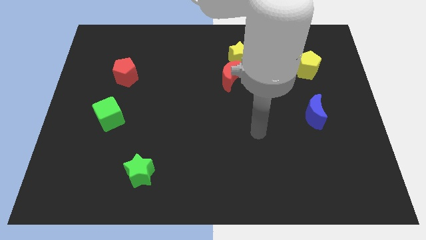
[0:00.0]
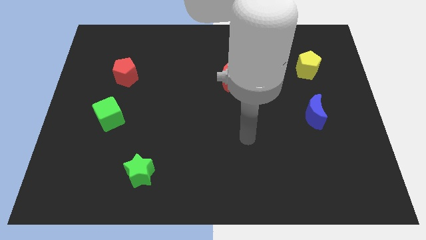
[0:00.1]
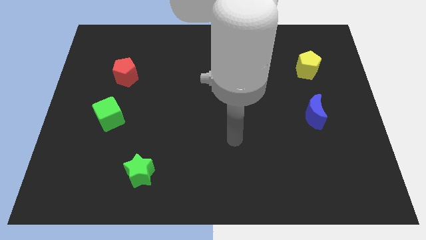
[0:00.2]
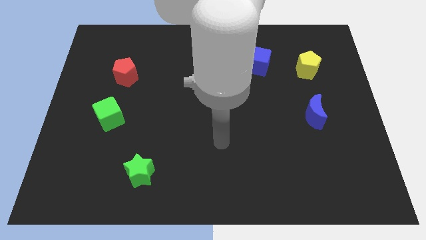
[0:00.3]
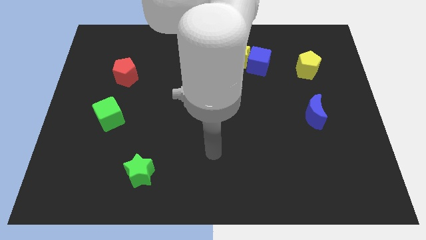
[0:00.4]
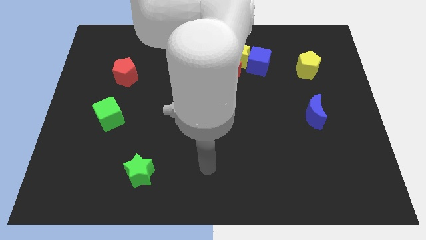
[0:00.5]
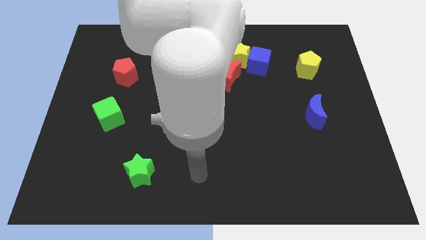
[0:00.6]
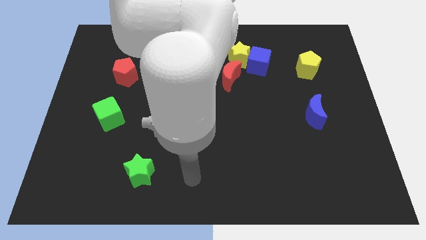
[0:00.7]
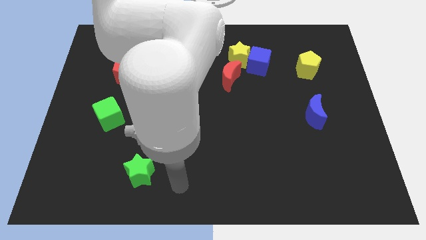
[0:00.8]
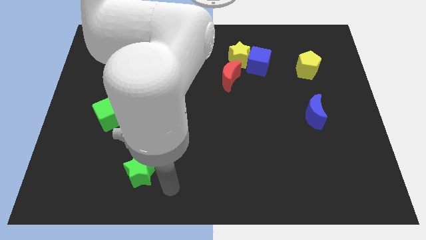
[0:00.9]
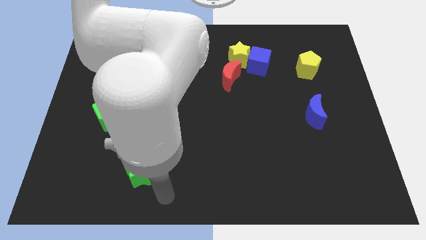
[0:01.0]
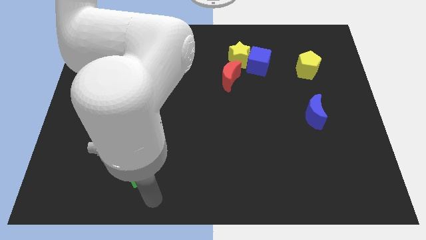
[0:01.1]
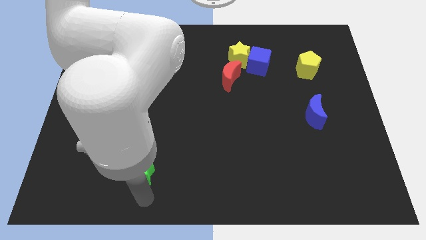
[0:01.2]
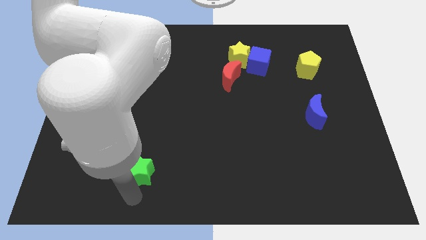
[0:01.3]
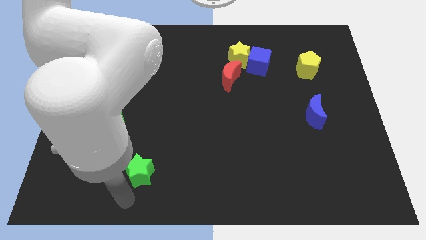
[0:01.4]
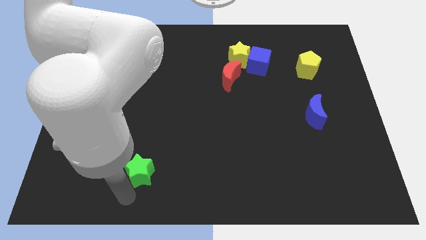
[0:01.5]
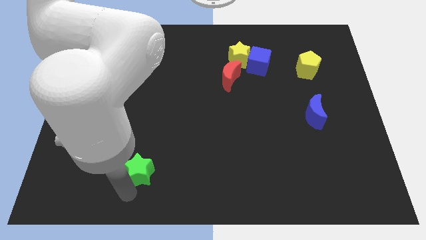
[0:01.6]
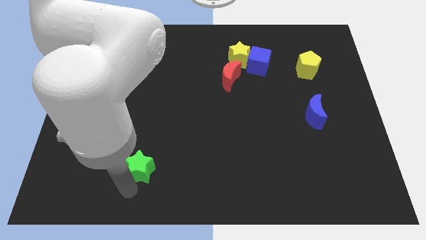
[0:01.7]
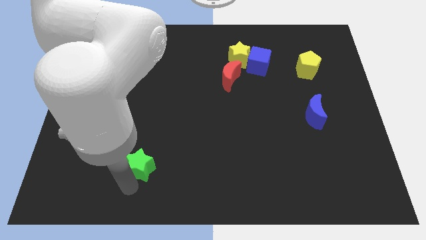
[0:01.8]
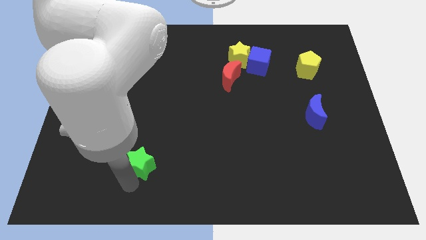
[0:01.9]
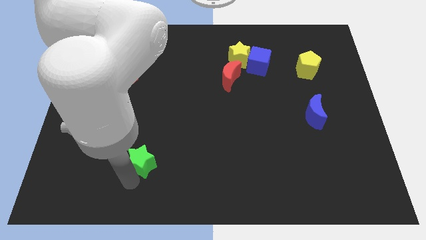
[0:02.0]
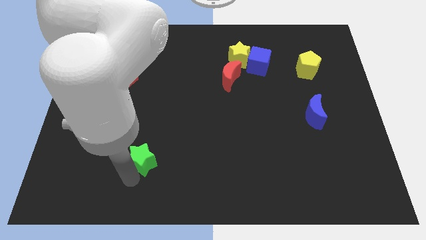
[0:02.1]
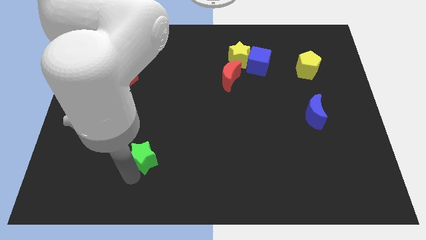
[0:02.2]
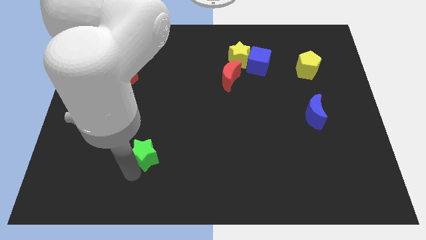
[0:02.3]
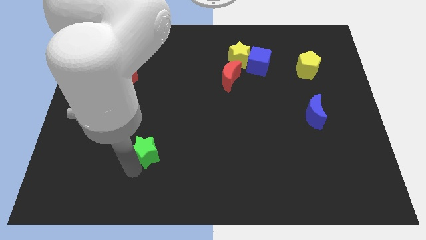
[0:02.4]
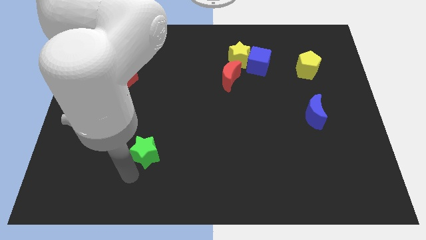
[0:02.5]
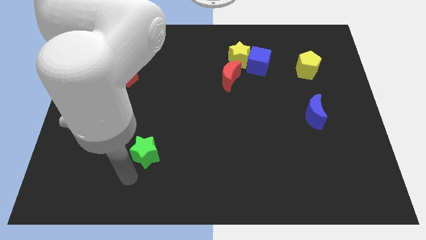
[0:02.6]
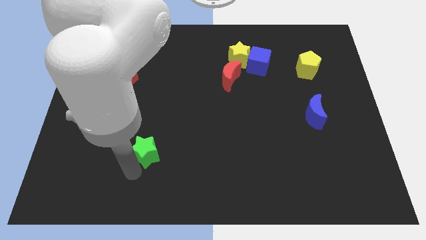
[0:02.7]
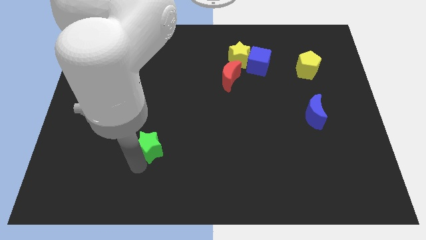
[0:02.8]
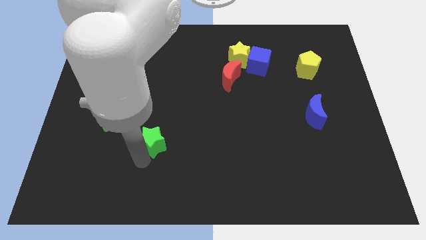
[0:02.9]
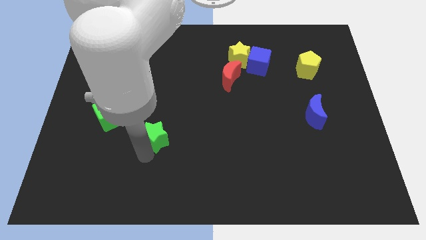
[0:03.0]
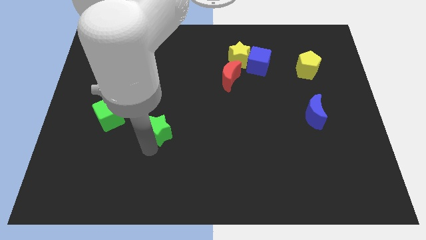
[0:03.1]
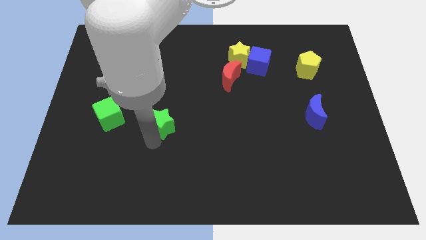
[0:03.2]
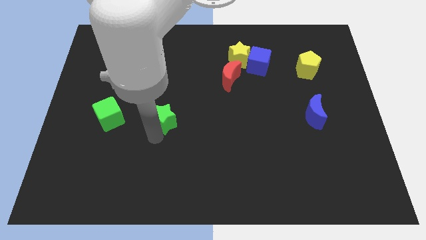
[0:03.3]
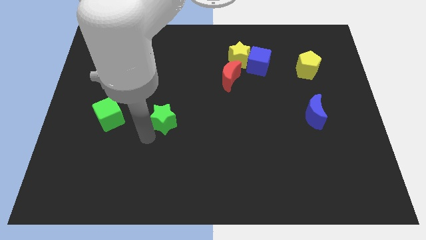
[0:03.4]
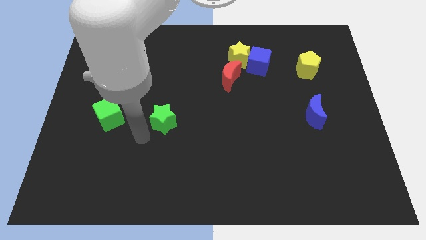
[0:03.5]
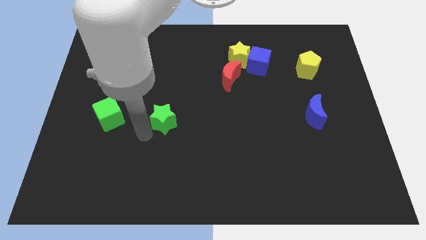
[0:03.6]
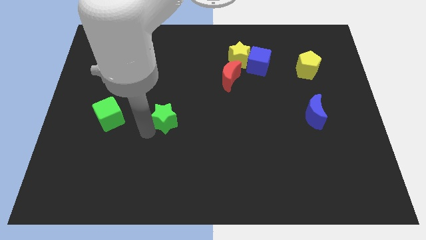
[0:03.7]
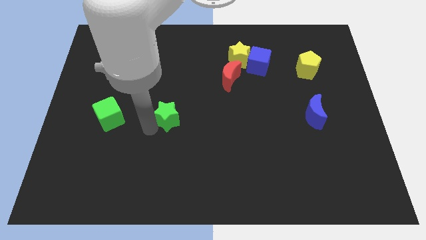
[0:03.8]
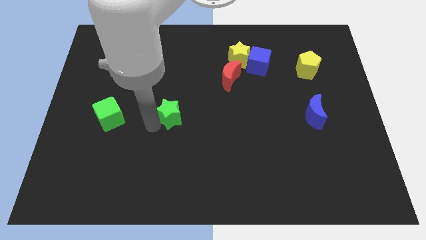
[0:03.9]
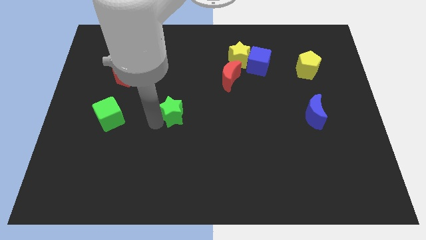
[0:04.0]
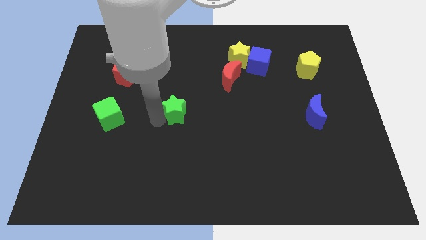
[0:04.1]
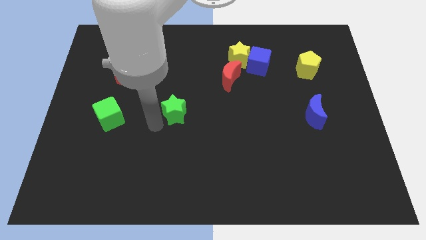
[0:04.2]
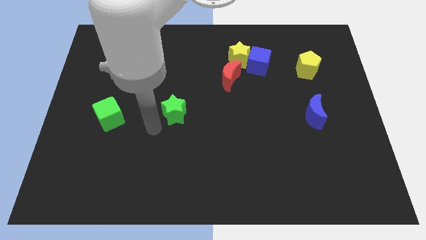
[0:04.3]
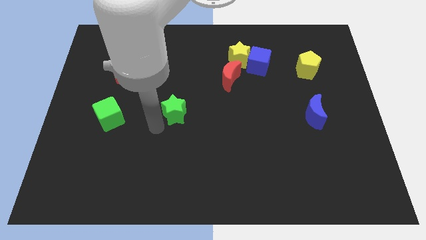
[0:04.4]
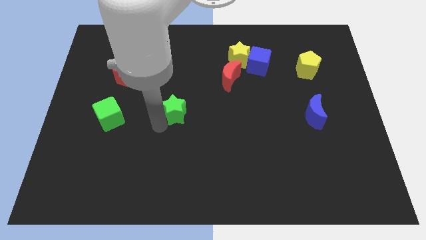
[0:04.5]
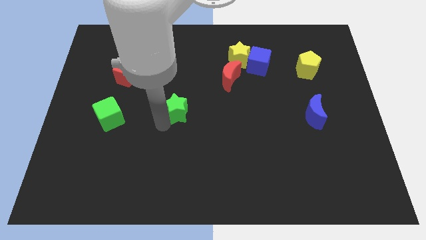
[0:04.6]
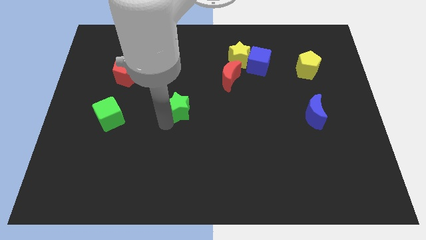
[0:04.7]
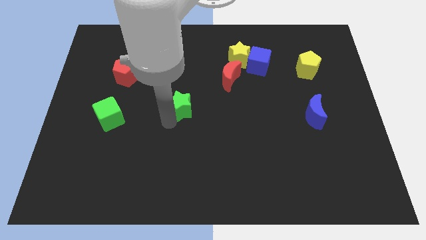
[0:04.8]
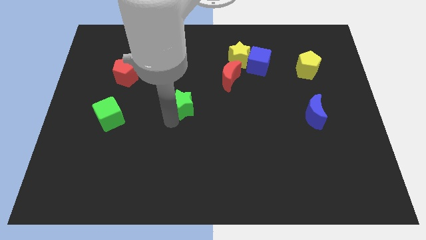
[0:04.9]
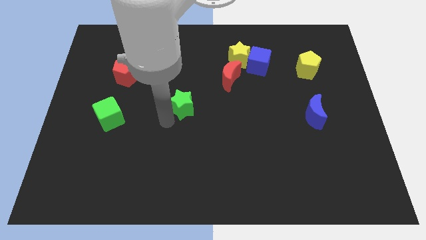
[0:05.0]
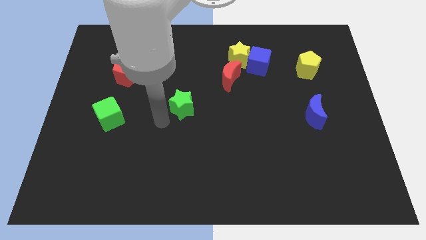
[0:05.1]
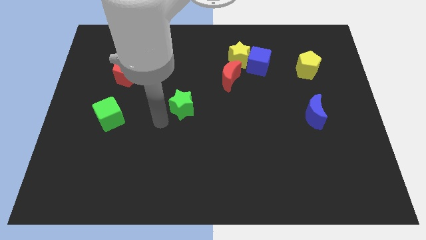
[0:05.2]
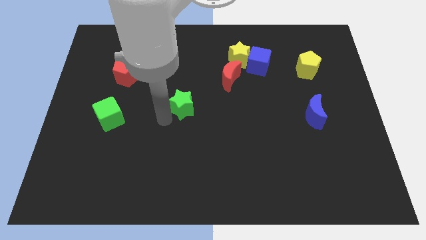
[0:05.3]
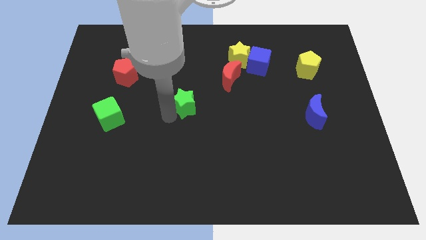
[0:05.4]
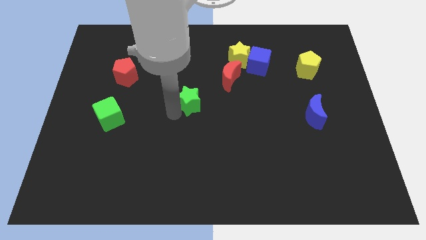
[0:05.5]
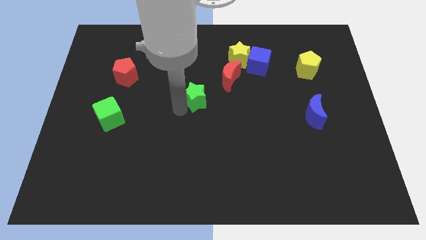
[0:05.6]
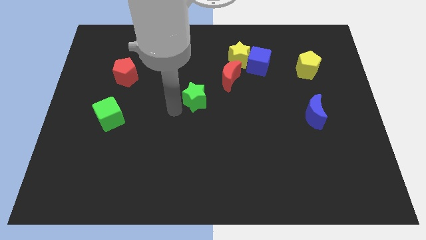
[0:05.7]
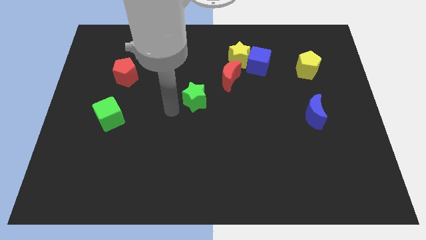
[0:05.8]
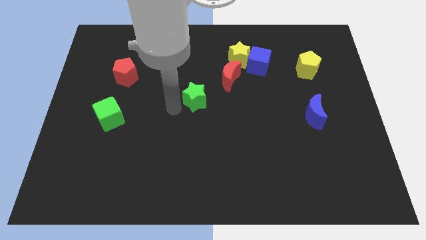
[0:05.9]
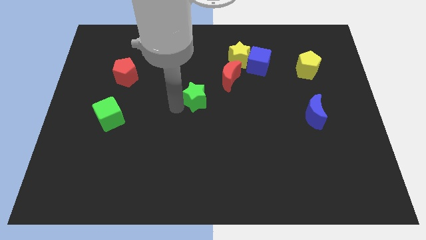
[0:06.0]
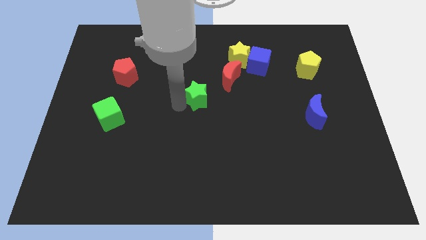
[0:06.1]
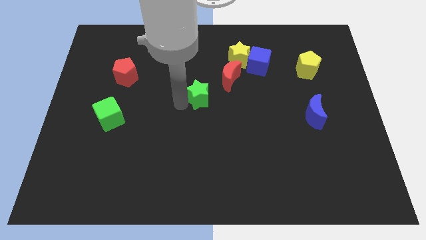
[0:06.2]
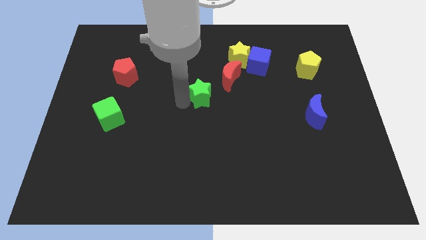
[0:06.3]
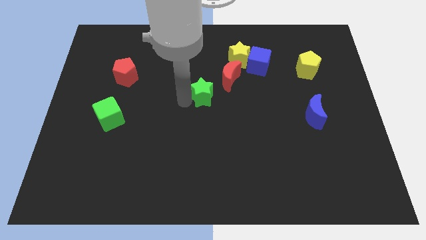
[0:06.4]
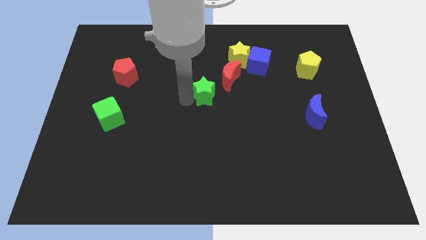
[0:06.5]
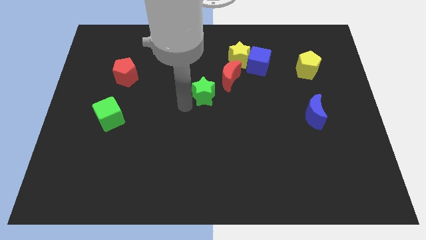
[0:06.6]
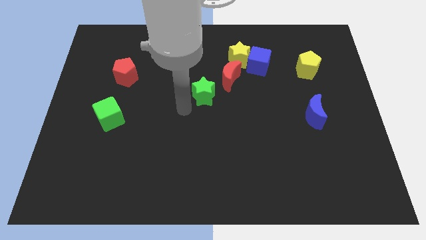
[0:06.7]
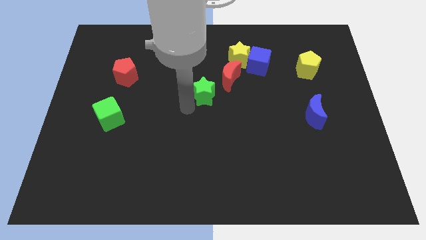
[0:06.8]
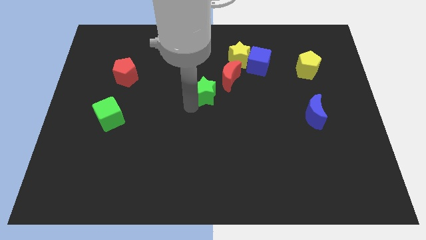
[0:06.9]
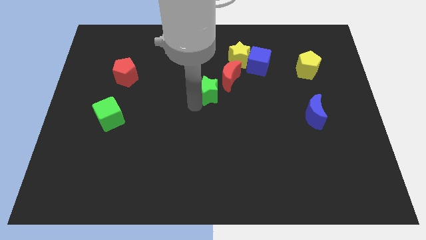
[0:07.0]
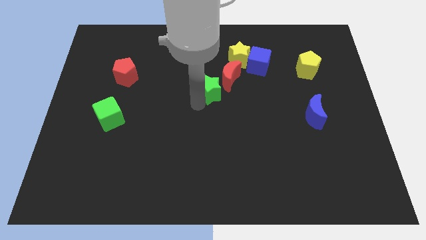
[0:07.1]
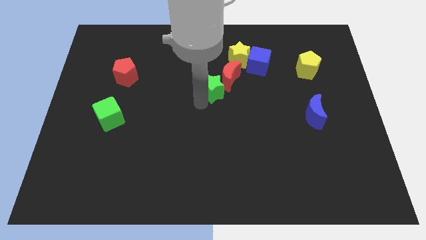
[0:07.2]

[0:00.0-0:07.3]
put the green star to the red moon

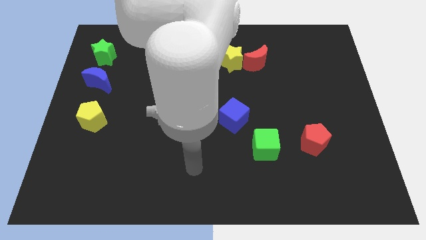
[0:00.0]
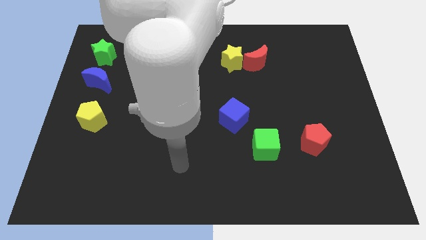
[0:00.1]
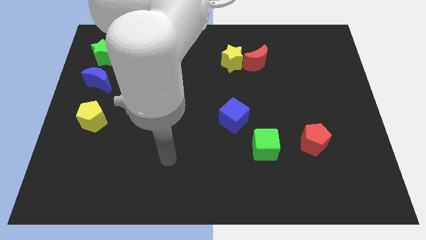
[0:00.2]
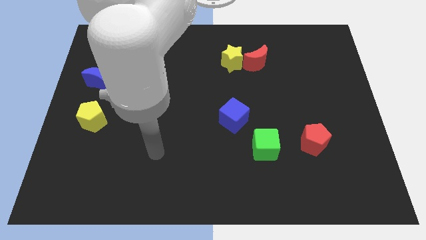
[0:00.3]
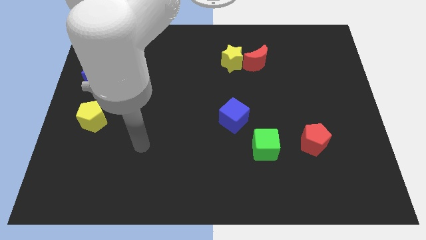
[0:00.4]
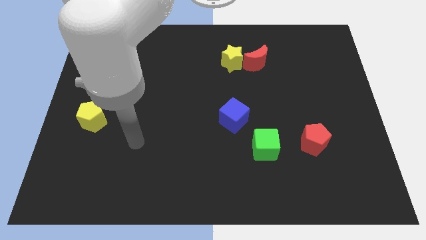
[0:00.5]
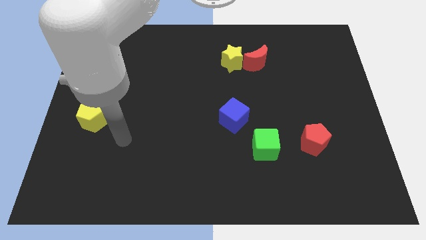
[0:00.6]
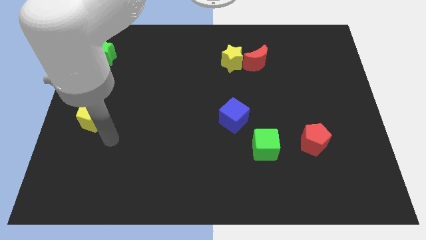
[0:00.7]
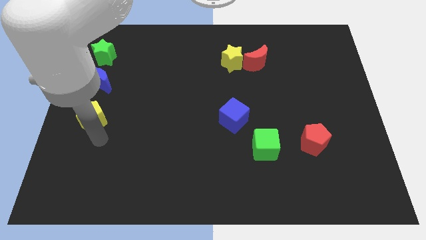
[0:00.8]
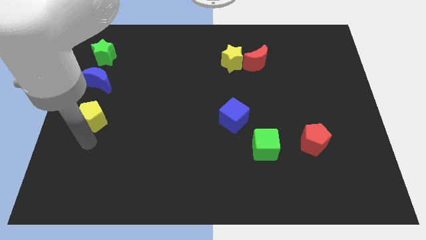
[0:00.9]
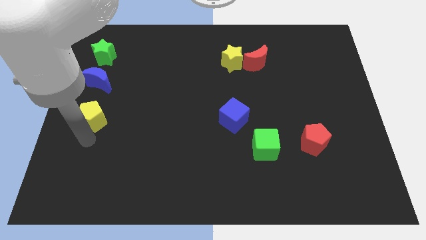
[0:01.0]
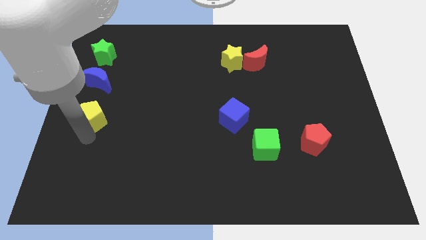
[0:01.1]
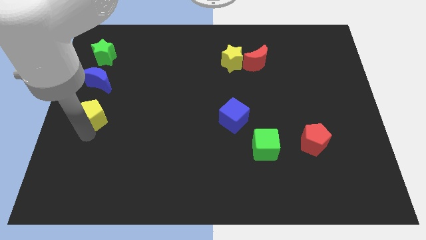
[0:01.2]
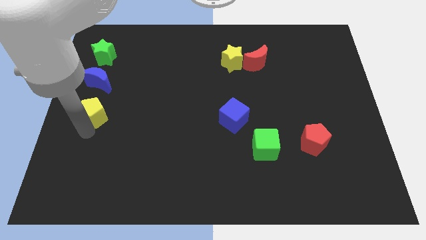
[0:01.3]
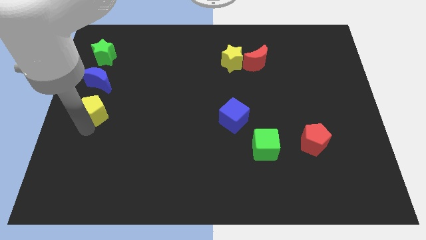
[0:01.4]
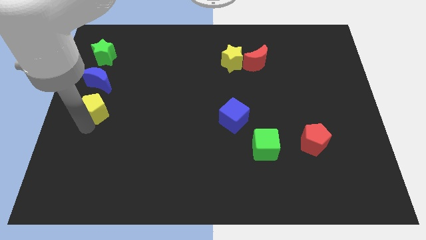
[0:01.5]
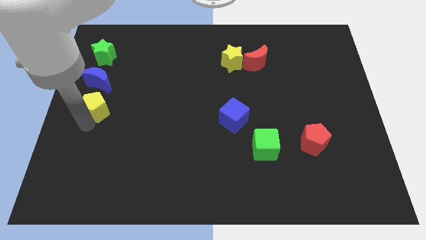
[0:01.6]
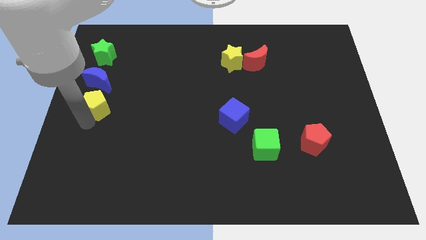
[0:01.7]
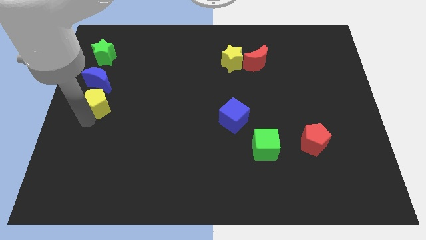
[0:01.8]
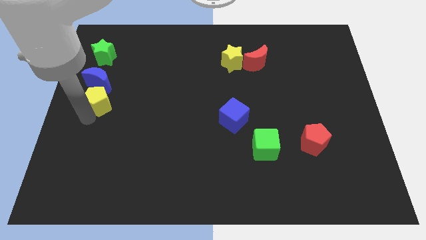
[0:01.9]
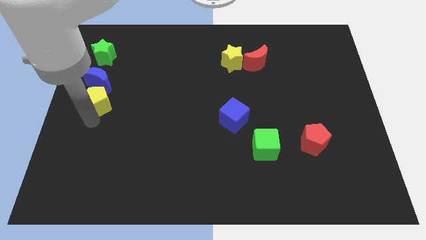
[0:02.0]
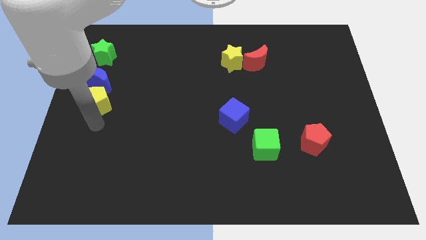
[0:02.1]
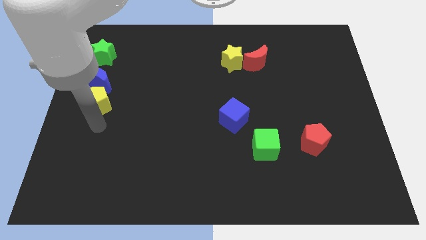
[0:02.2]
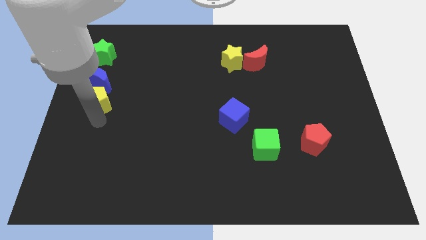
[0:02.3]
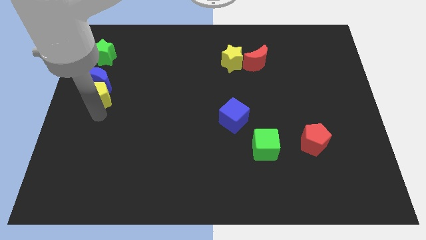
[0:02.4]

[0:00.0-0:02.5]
push the yellow pentagon towards the blue moon
